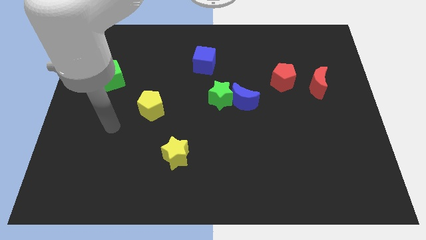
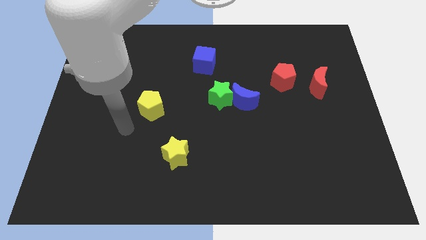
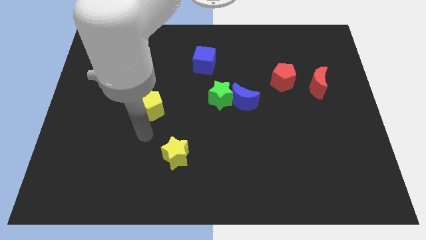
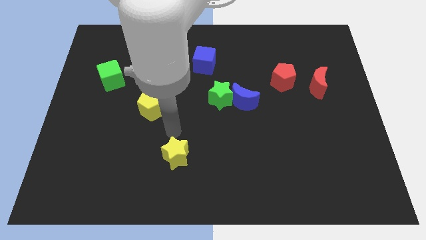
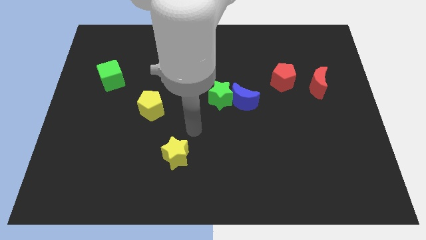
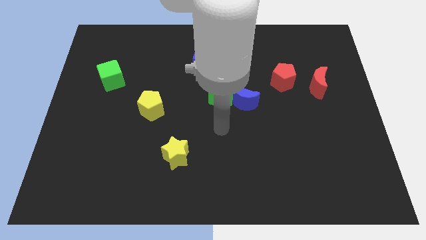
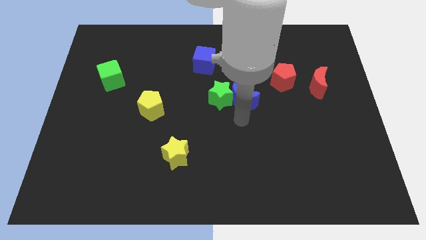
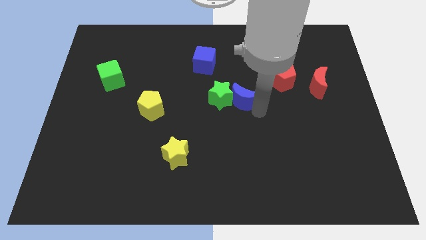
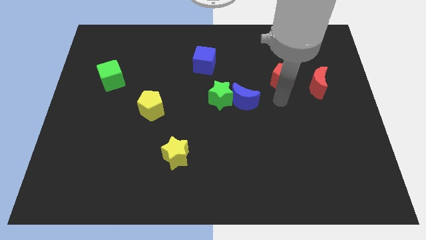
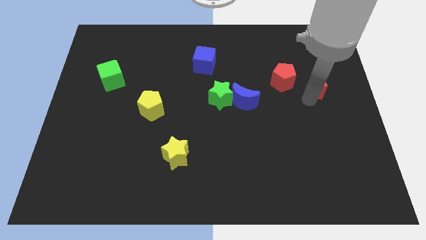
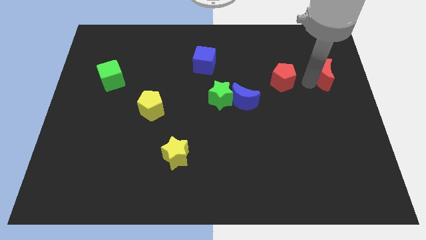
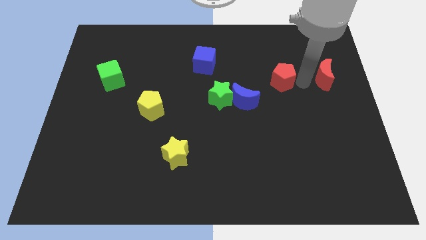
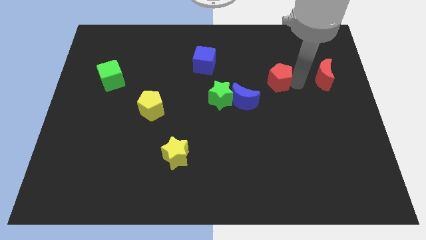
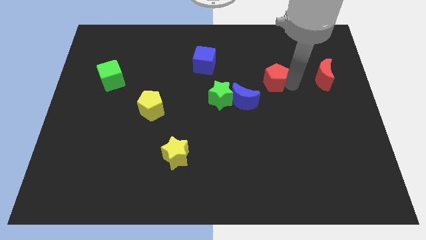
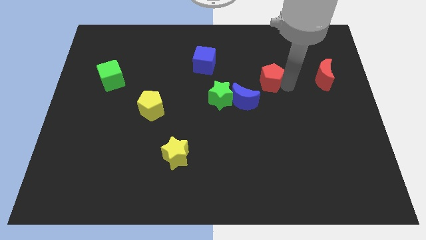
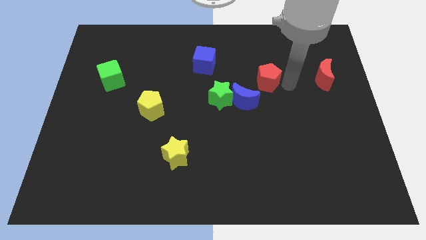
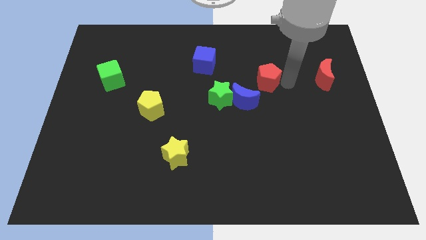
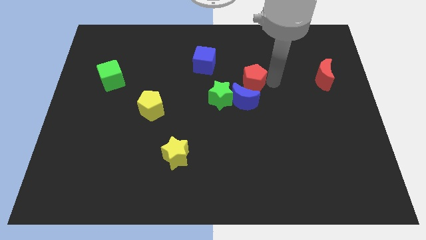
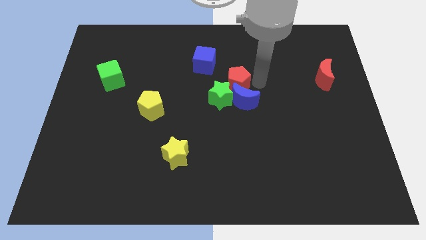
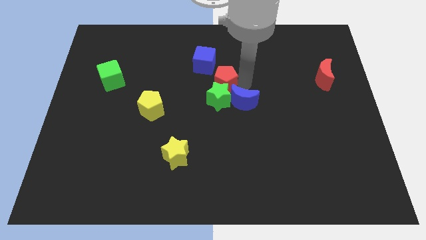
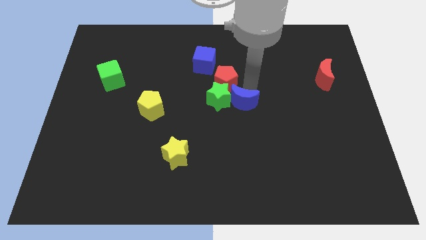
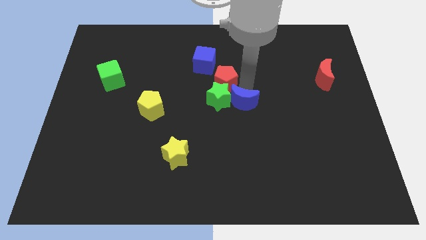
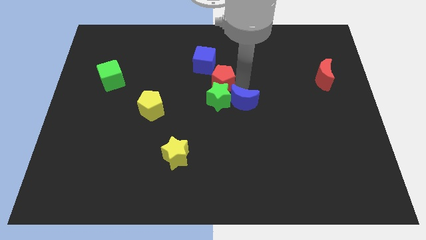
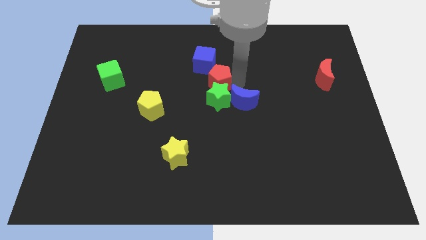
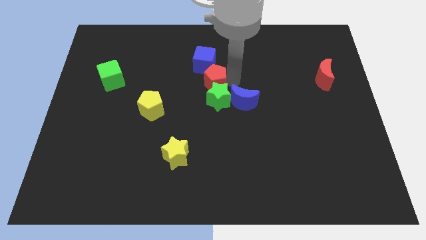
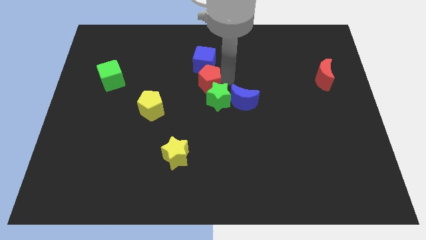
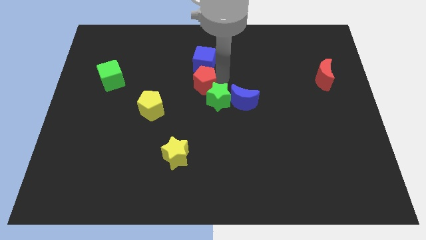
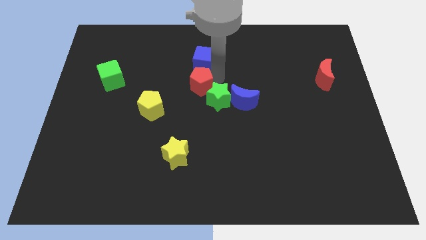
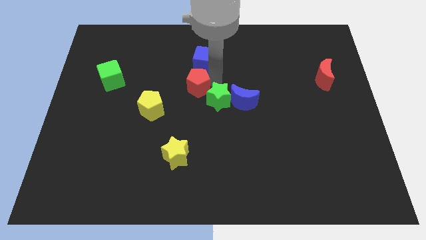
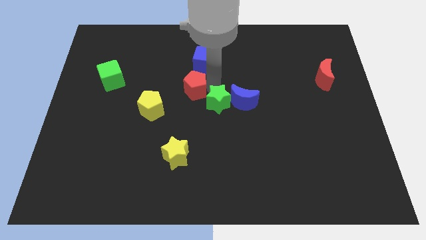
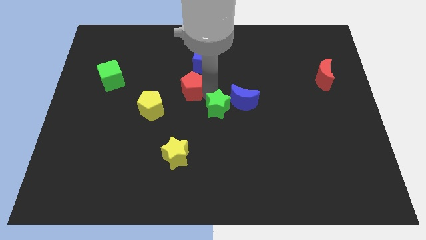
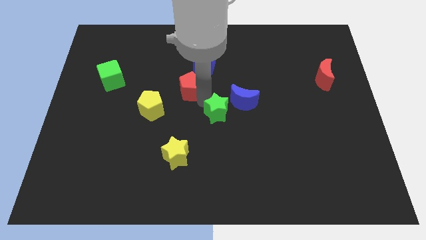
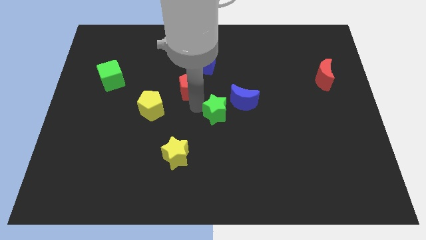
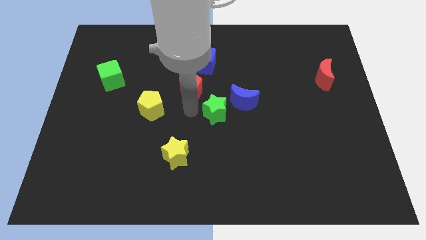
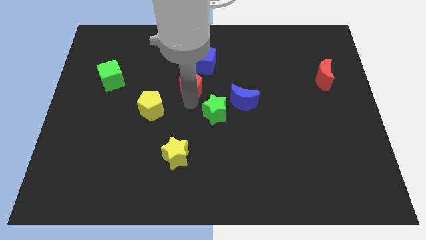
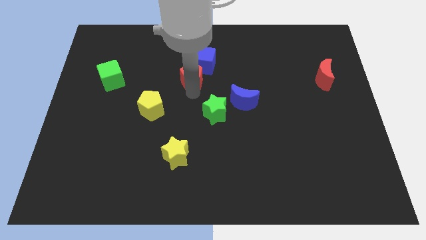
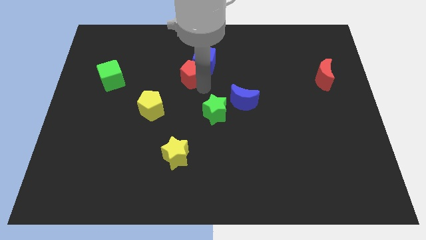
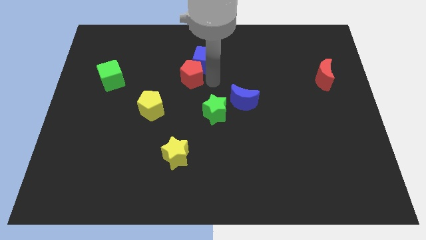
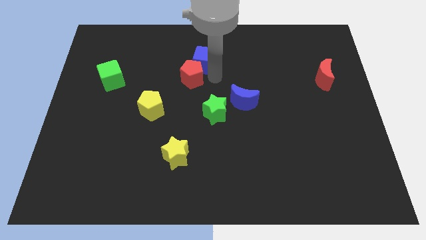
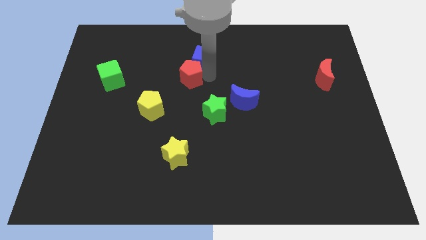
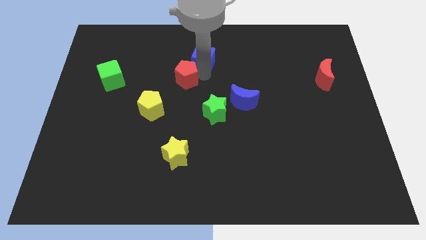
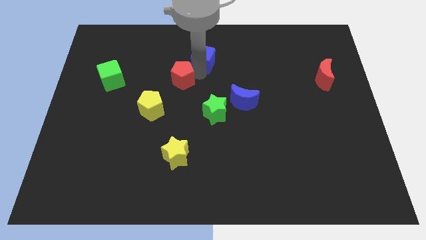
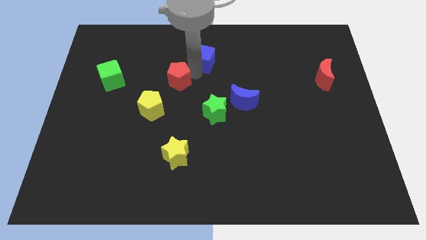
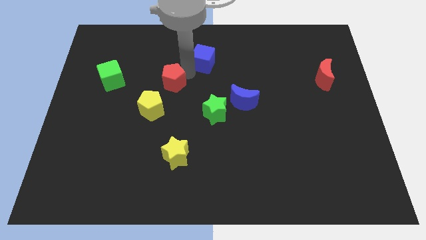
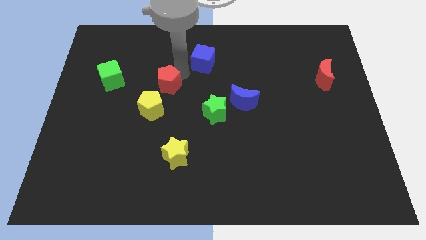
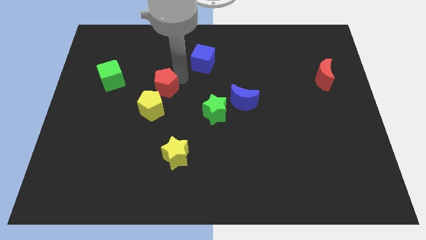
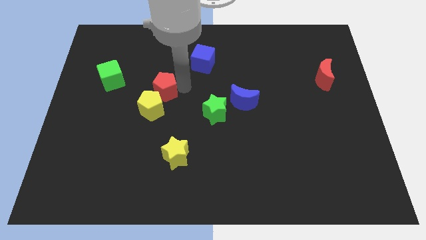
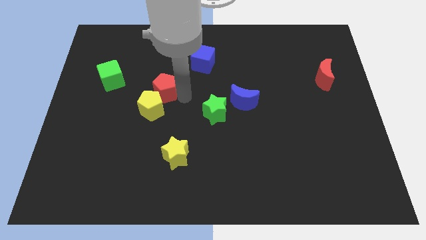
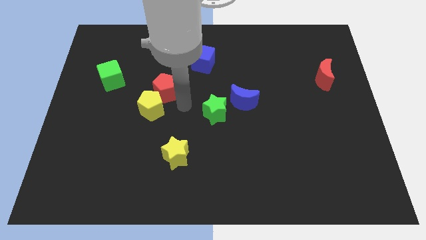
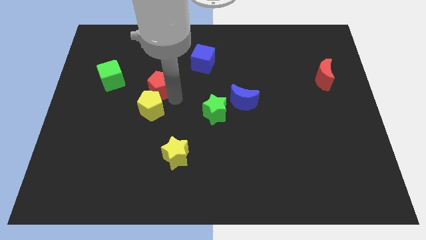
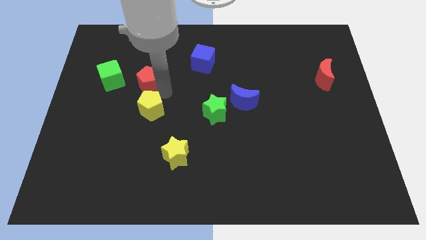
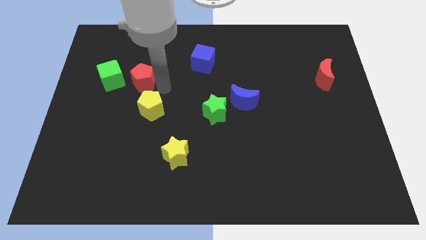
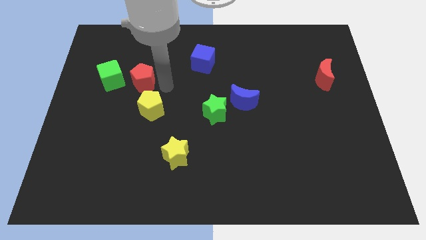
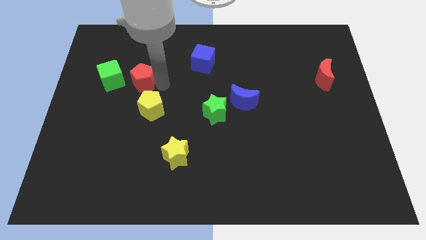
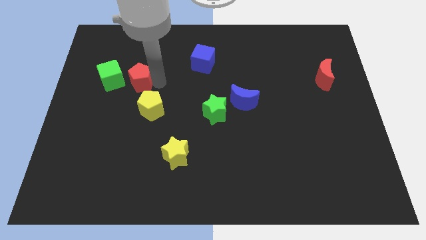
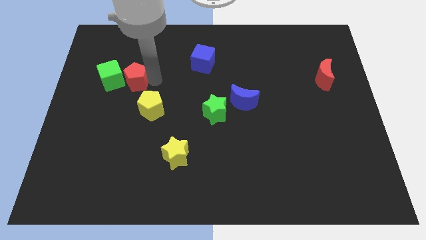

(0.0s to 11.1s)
move the red pentagon next to the green cube

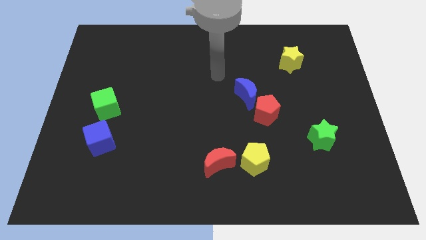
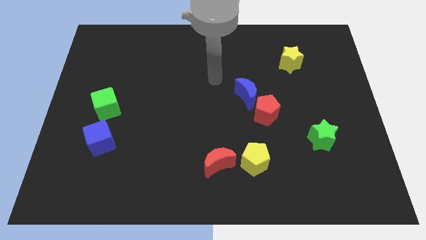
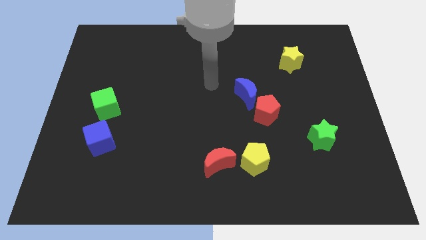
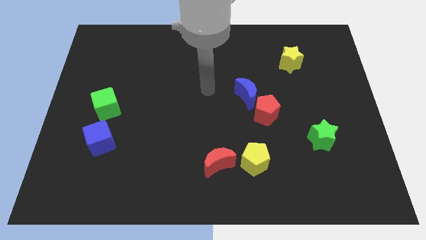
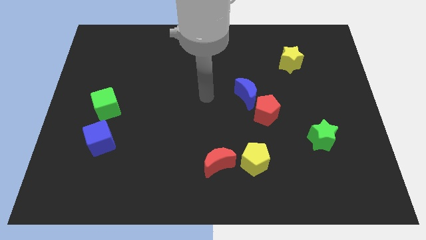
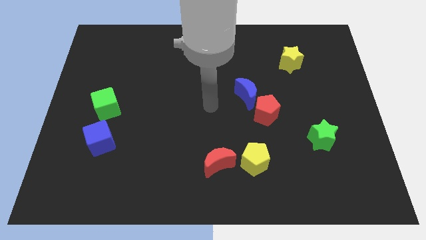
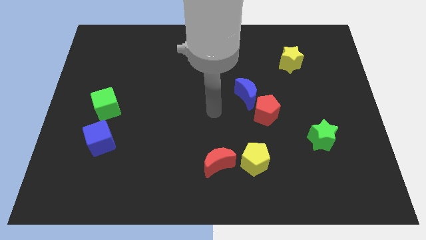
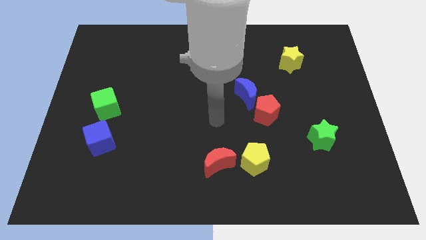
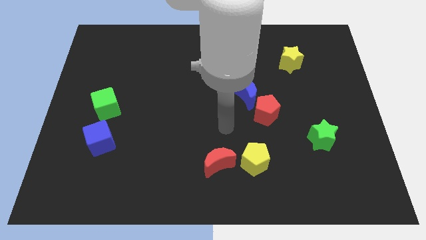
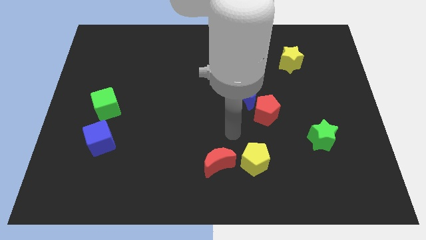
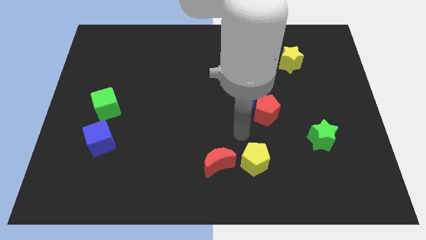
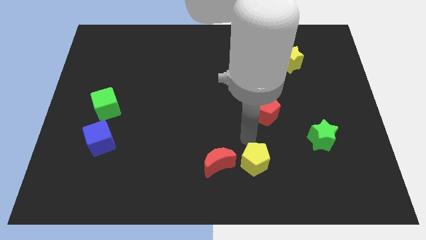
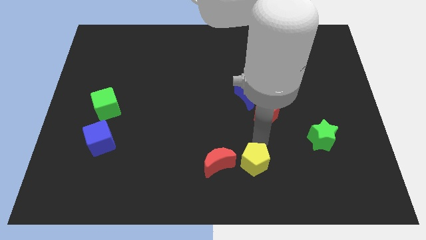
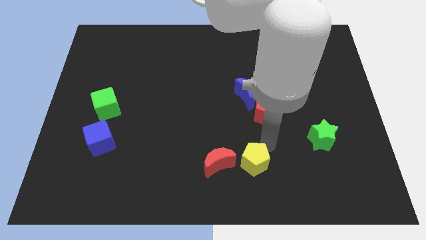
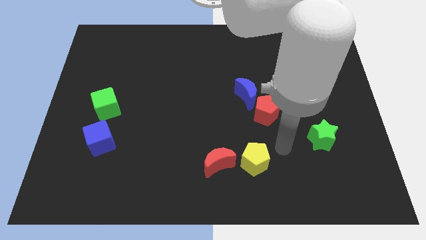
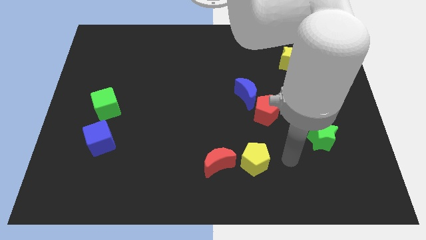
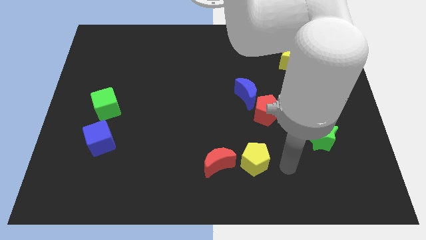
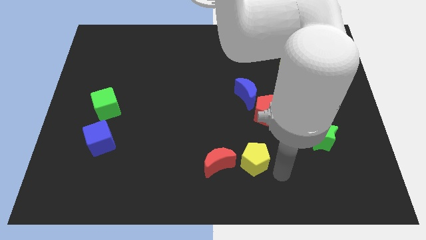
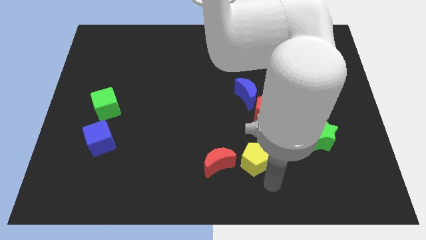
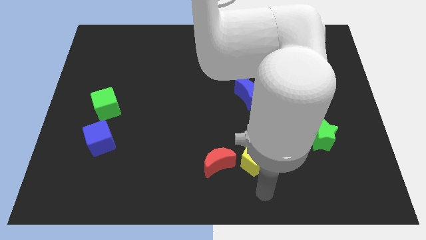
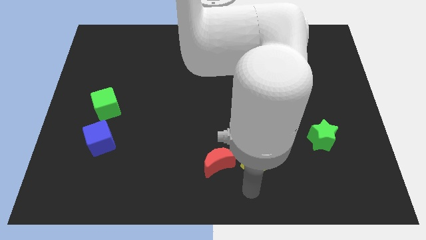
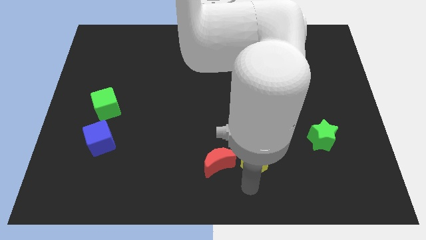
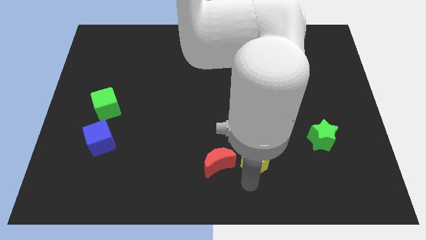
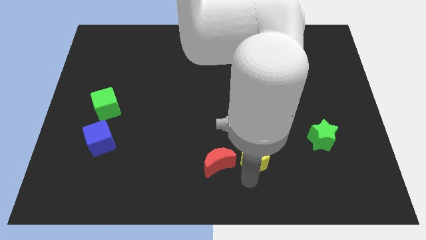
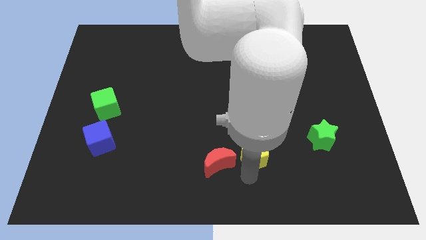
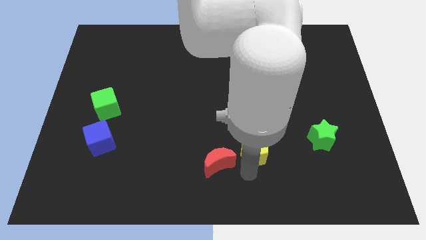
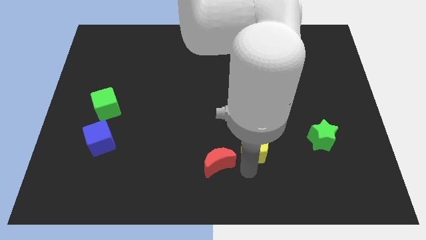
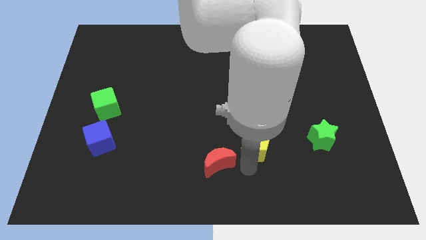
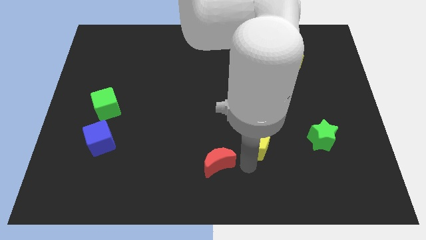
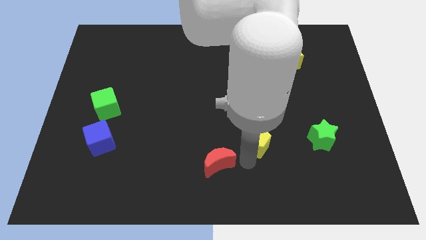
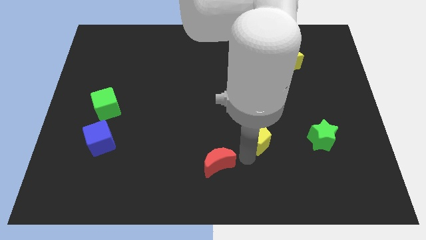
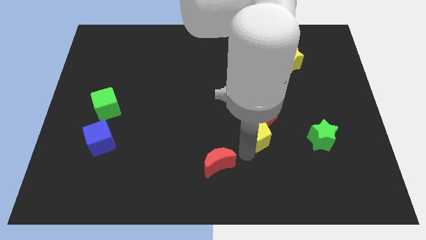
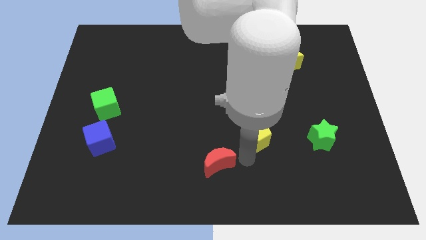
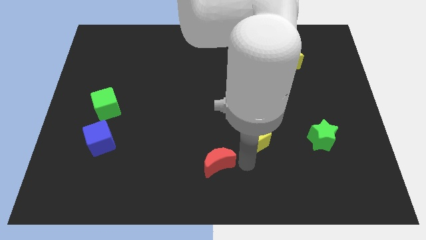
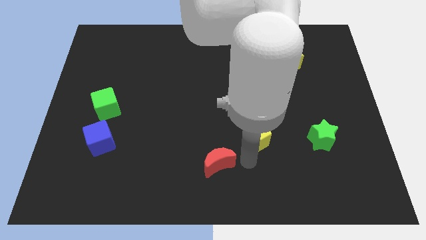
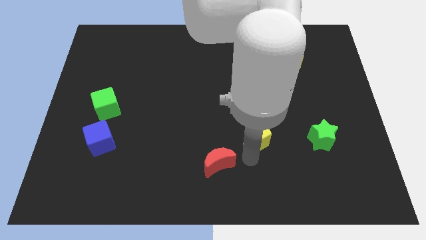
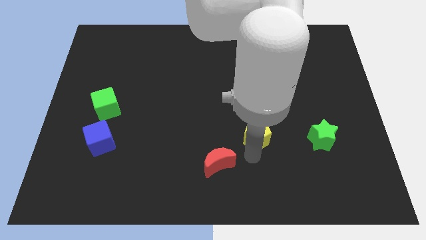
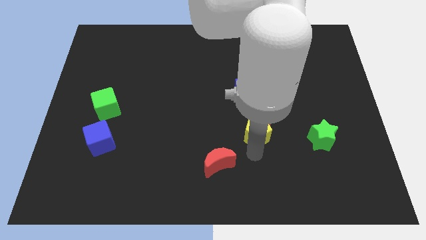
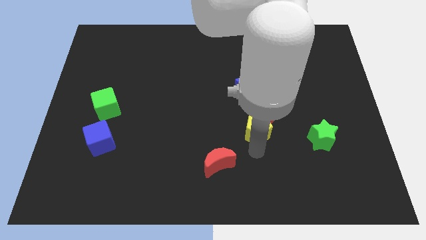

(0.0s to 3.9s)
put the yellow pentagon towards the red pentagon
